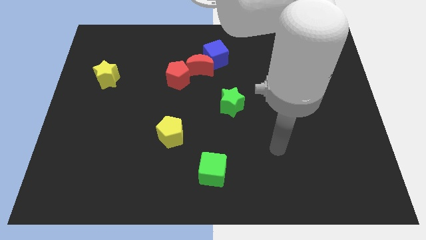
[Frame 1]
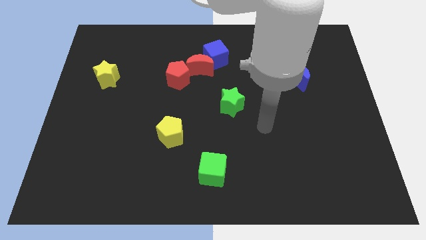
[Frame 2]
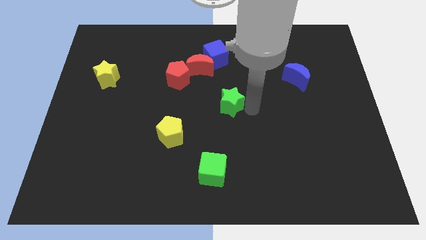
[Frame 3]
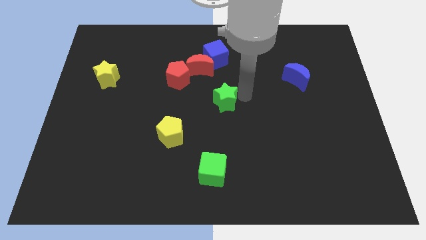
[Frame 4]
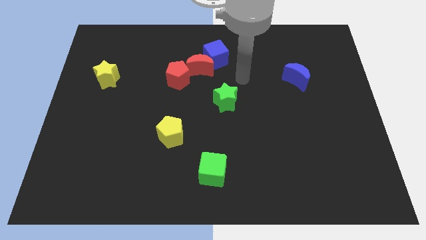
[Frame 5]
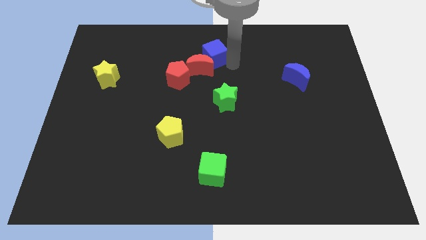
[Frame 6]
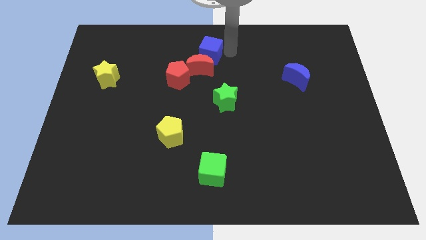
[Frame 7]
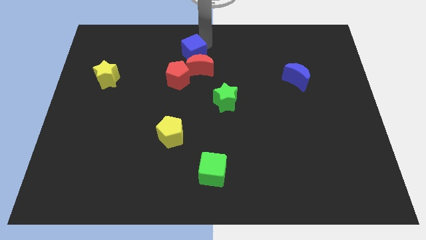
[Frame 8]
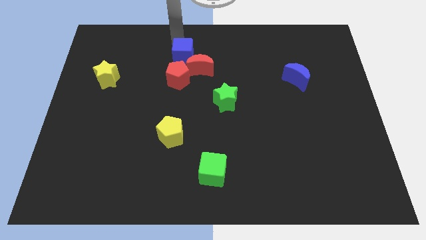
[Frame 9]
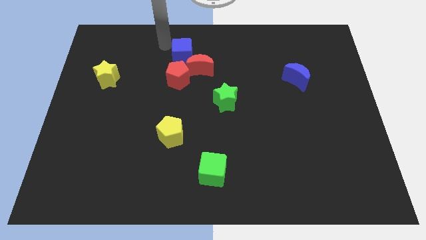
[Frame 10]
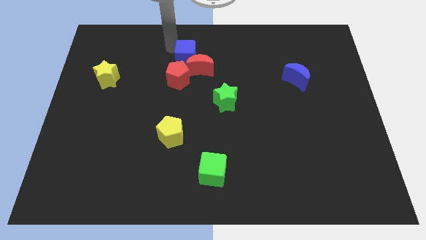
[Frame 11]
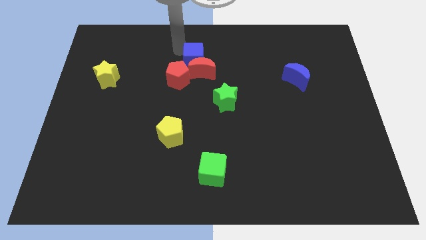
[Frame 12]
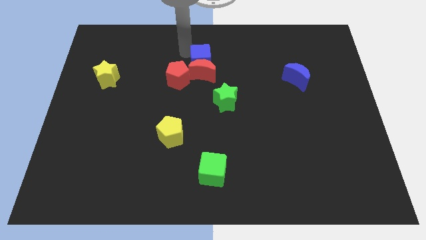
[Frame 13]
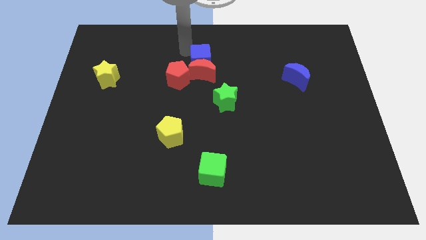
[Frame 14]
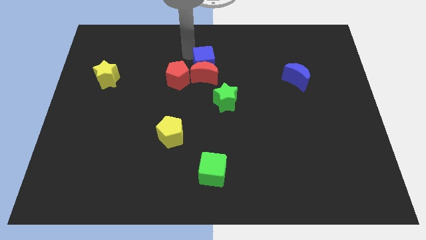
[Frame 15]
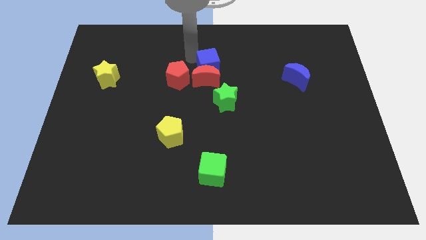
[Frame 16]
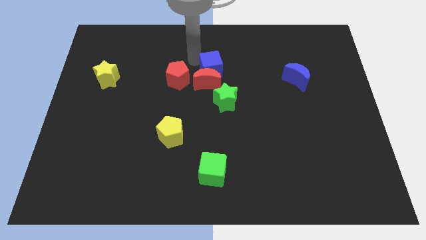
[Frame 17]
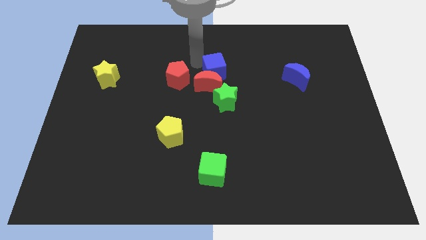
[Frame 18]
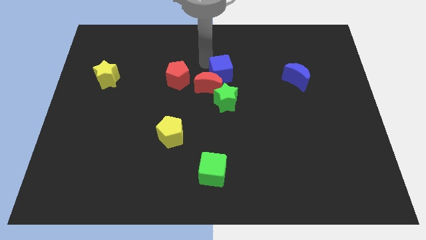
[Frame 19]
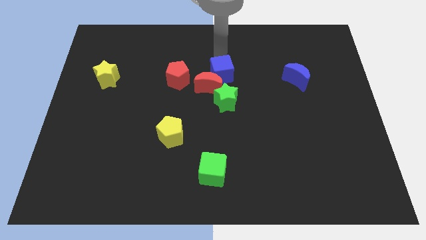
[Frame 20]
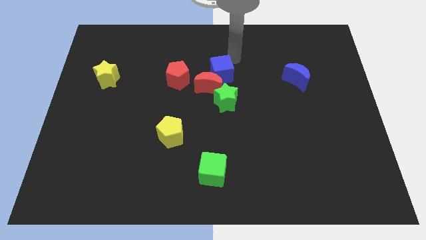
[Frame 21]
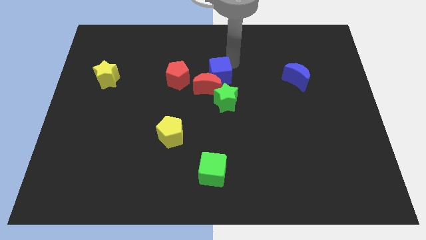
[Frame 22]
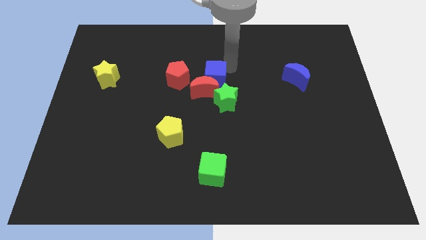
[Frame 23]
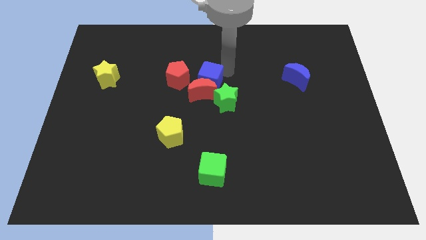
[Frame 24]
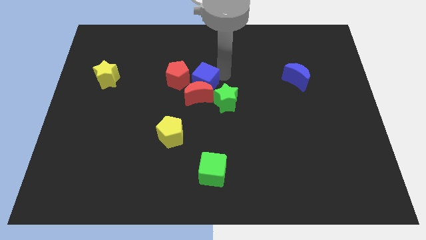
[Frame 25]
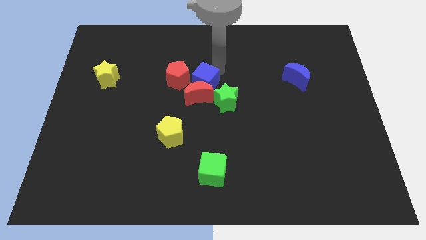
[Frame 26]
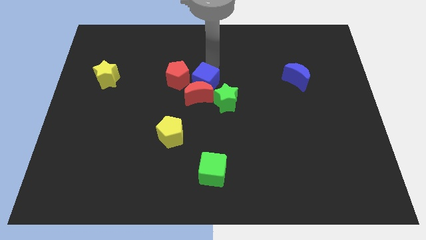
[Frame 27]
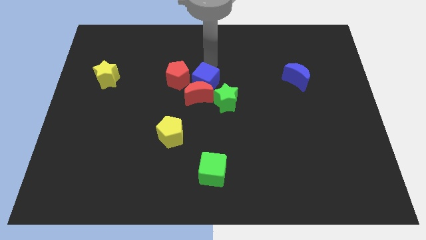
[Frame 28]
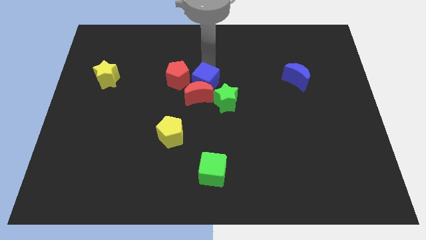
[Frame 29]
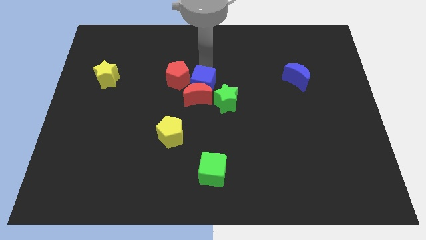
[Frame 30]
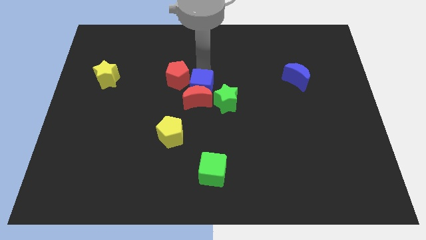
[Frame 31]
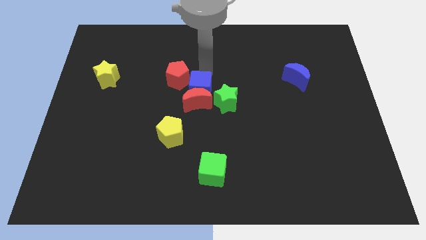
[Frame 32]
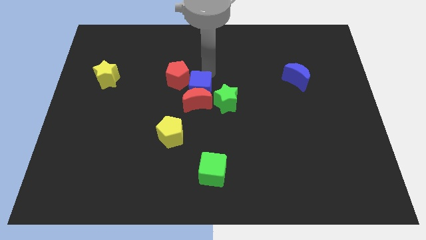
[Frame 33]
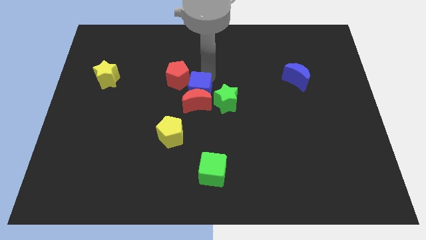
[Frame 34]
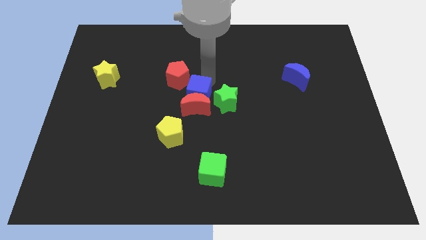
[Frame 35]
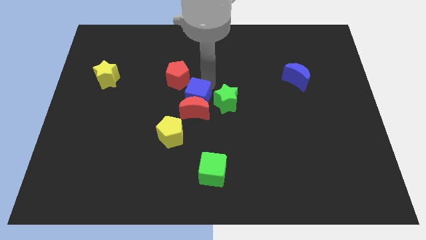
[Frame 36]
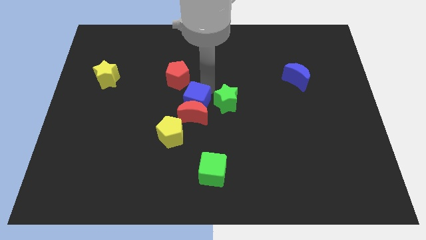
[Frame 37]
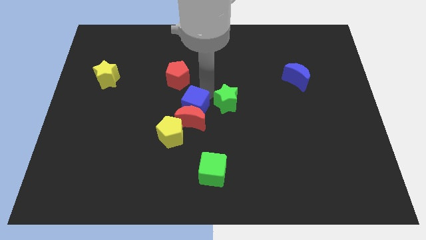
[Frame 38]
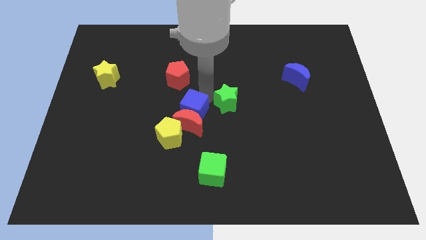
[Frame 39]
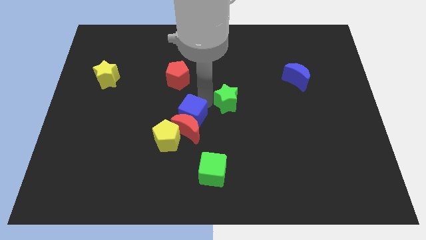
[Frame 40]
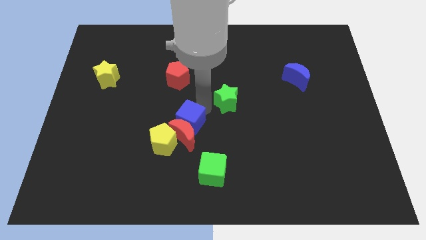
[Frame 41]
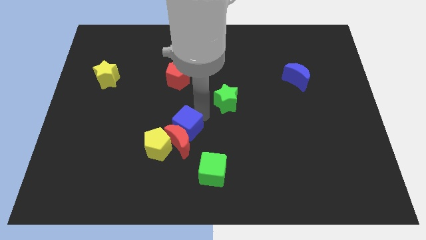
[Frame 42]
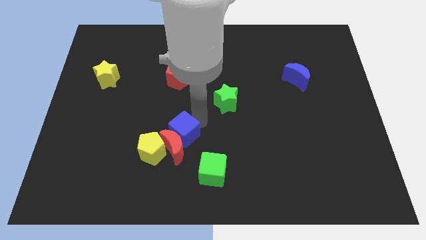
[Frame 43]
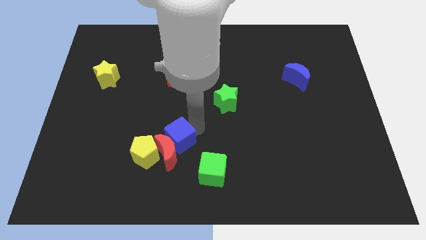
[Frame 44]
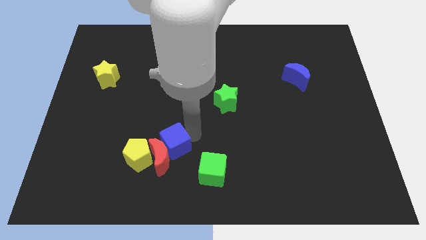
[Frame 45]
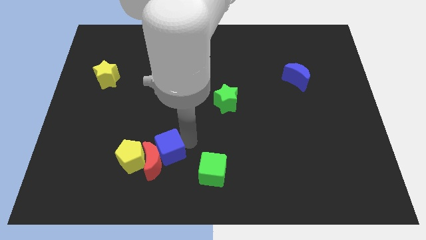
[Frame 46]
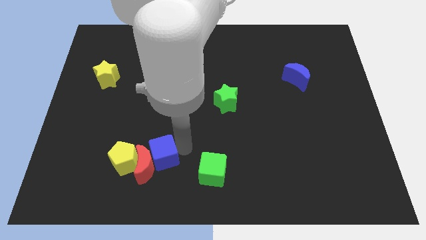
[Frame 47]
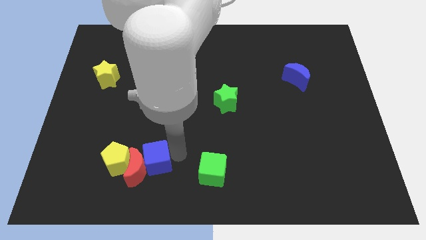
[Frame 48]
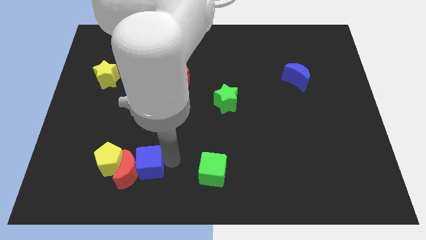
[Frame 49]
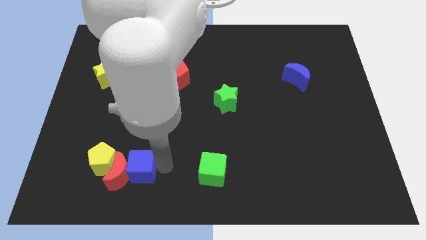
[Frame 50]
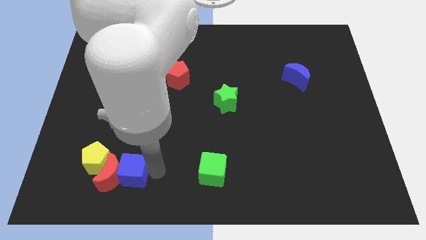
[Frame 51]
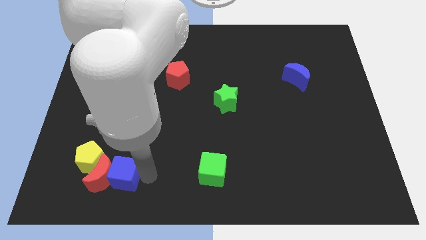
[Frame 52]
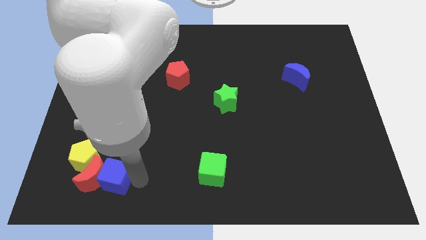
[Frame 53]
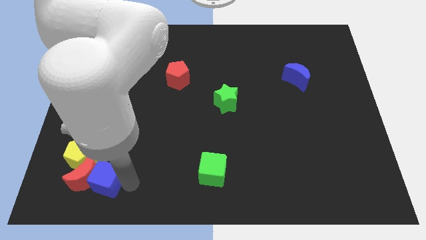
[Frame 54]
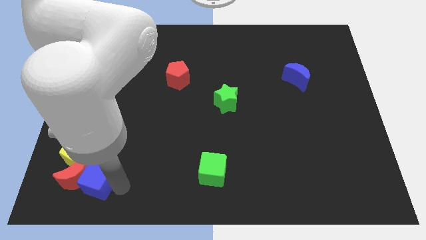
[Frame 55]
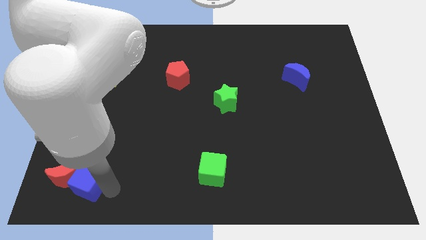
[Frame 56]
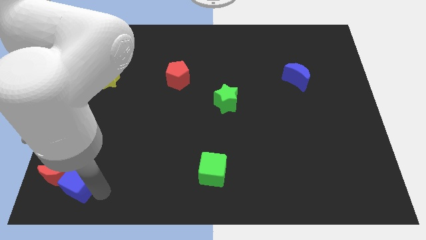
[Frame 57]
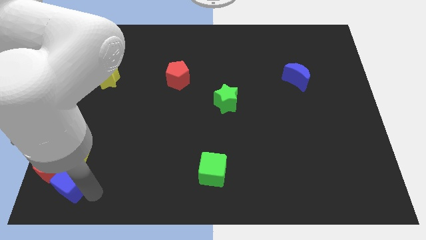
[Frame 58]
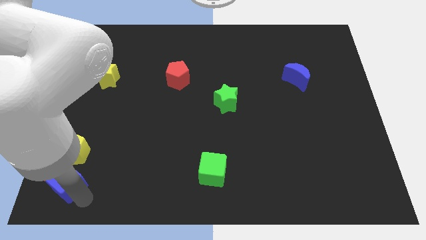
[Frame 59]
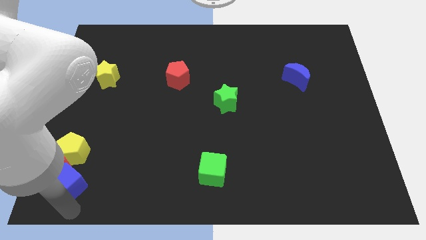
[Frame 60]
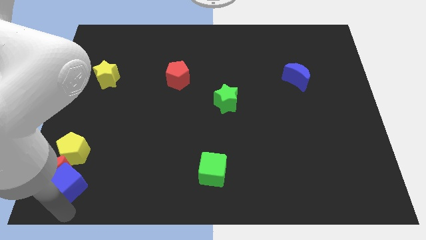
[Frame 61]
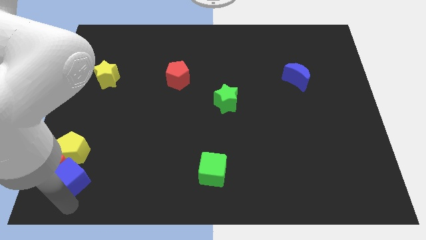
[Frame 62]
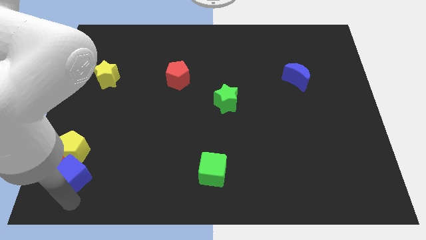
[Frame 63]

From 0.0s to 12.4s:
put the blue cube to the yellow pentagon

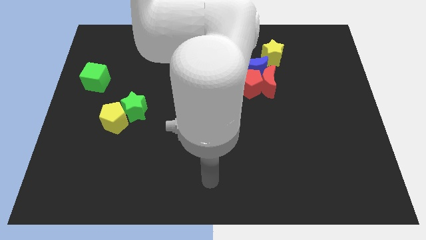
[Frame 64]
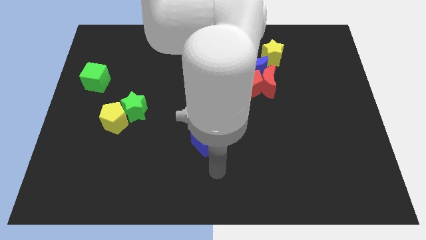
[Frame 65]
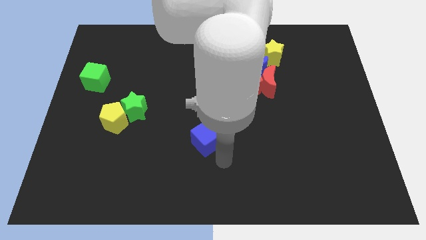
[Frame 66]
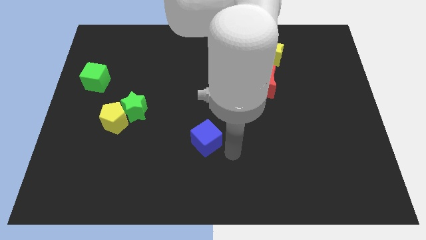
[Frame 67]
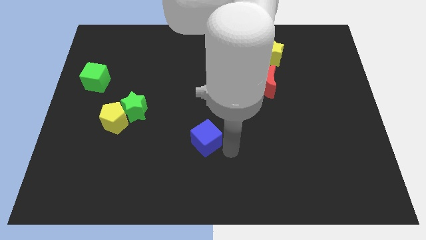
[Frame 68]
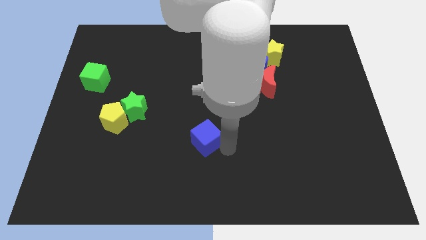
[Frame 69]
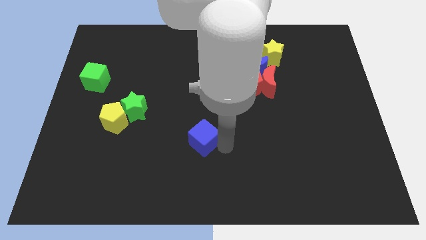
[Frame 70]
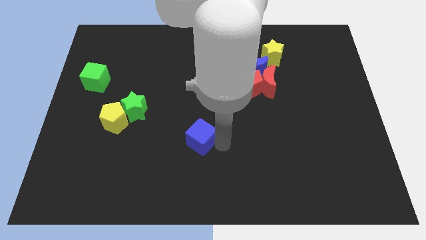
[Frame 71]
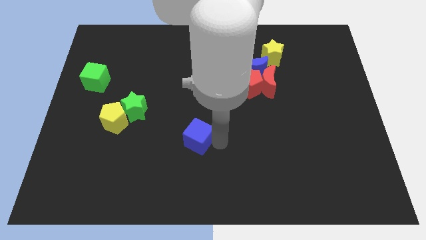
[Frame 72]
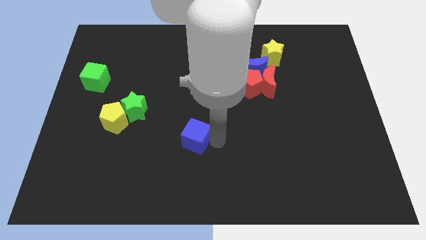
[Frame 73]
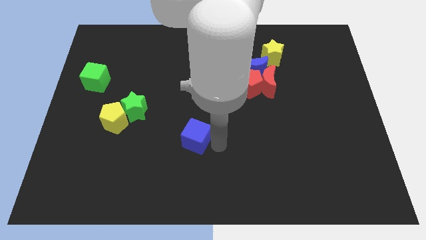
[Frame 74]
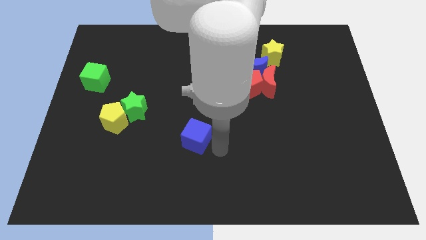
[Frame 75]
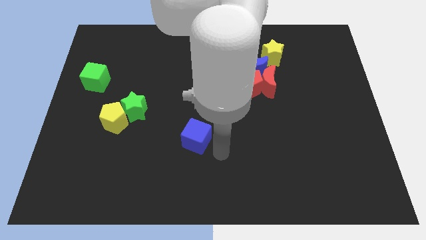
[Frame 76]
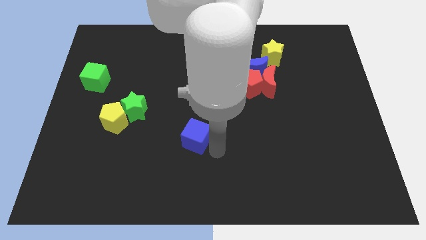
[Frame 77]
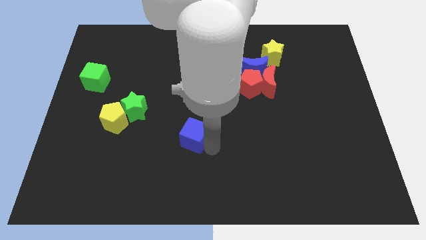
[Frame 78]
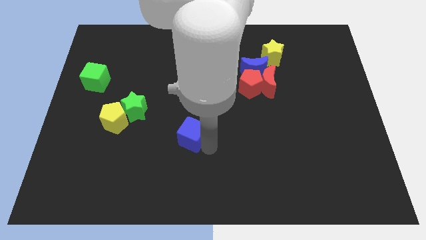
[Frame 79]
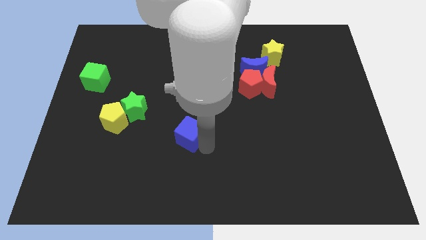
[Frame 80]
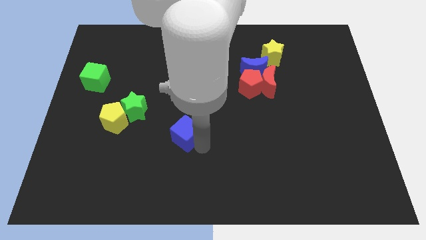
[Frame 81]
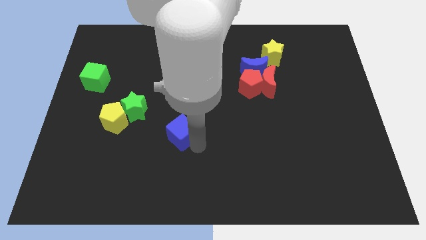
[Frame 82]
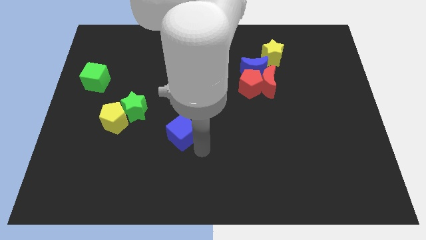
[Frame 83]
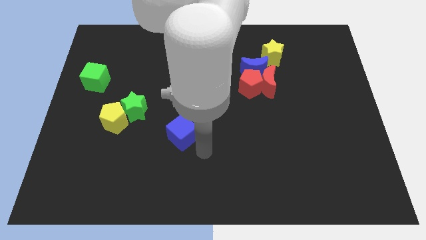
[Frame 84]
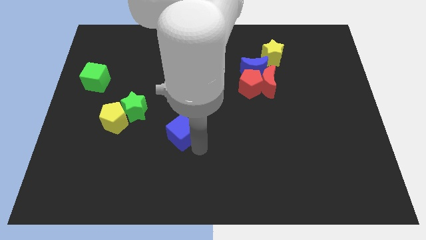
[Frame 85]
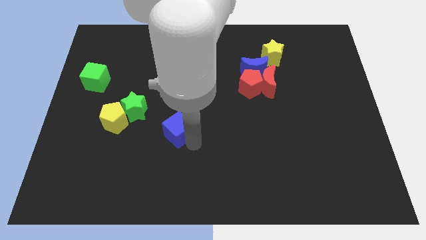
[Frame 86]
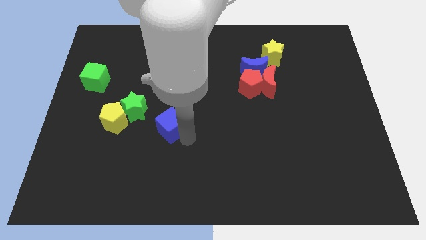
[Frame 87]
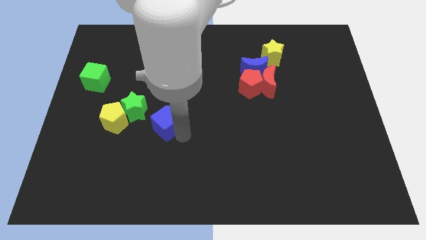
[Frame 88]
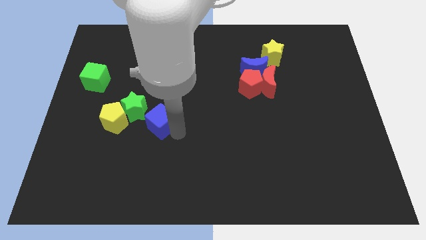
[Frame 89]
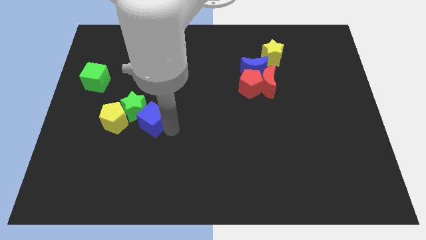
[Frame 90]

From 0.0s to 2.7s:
slide the blue cube towards the green star
